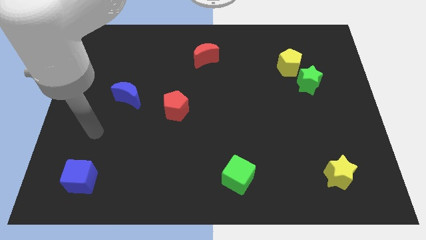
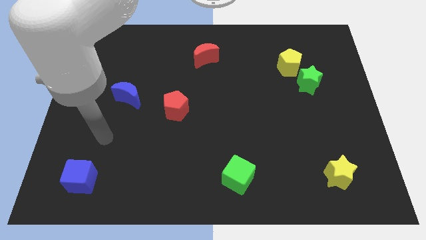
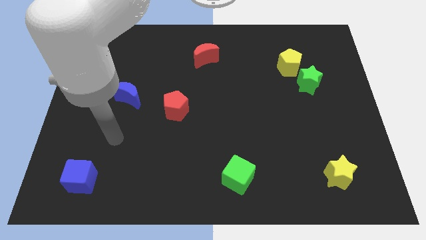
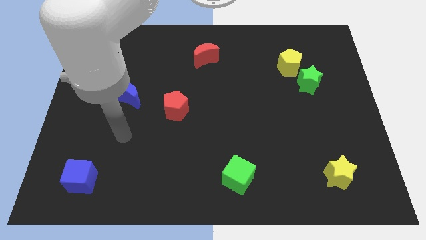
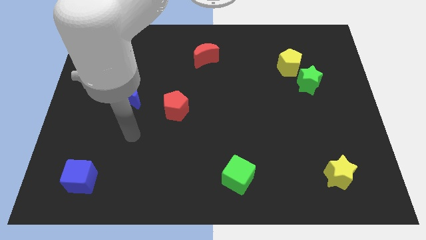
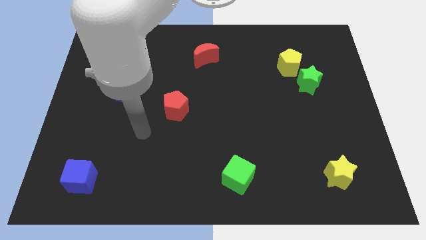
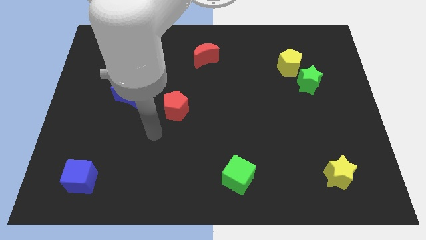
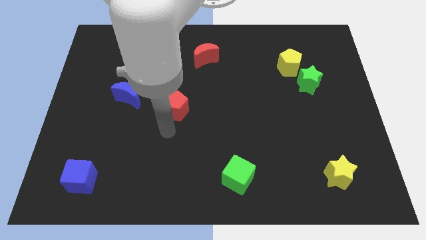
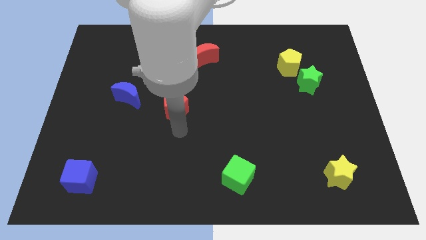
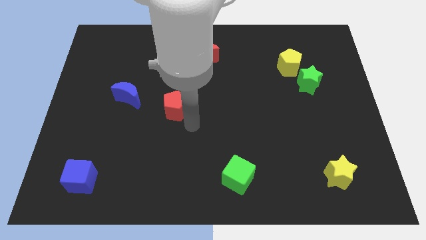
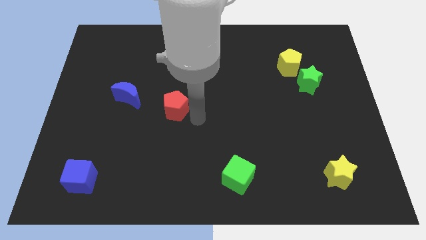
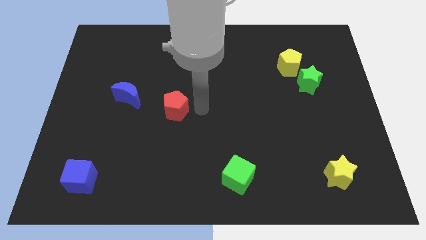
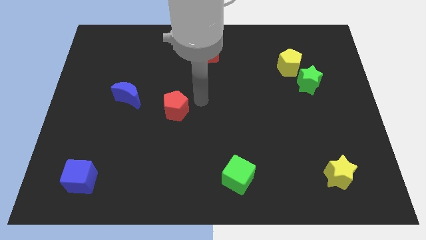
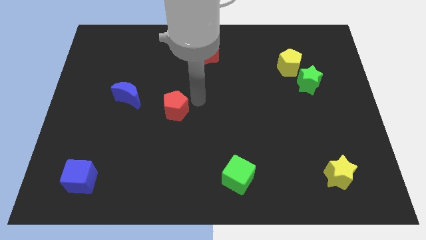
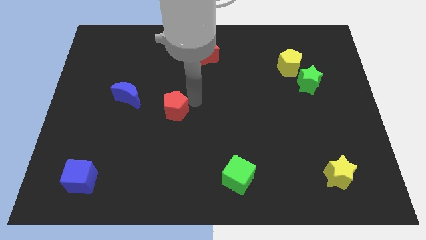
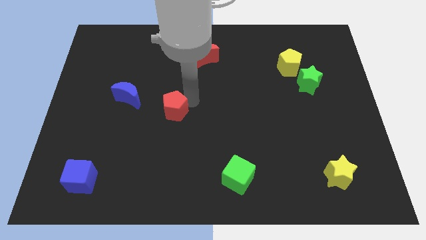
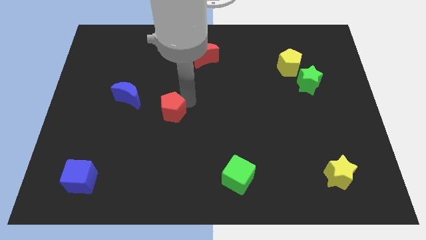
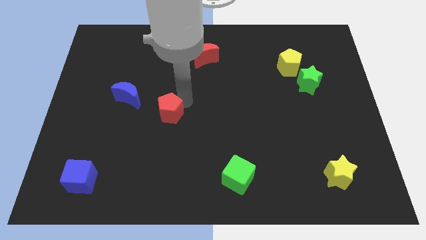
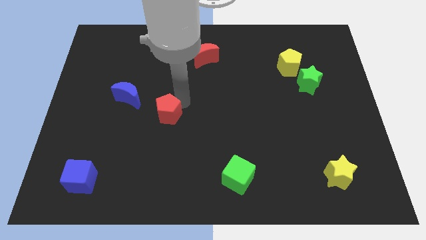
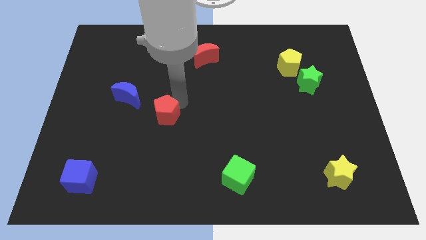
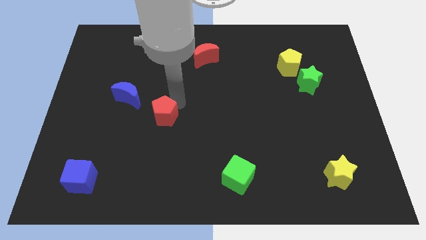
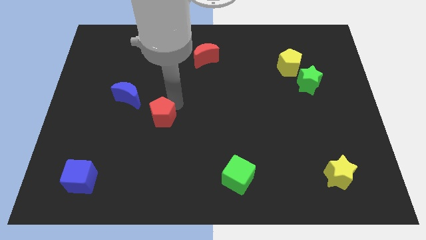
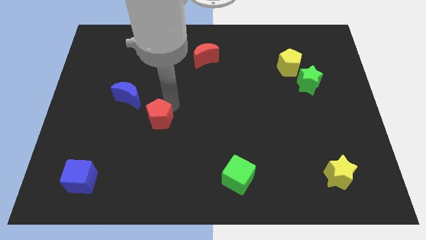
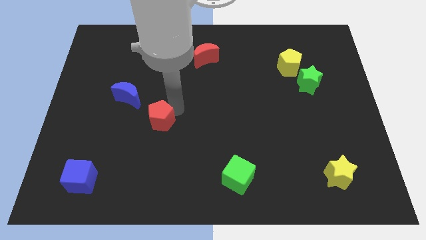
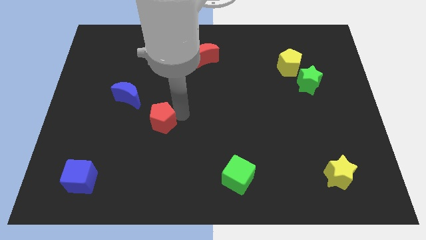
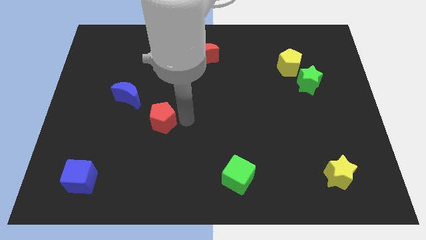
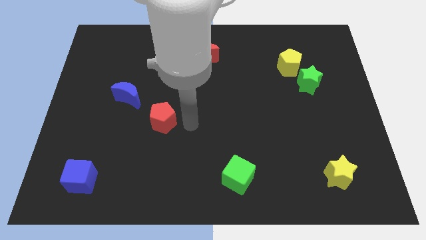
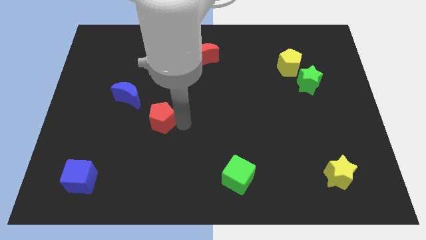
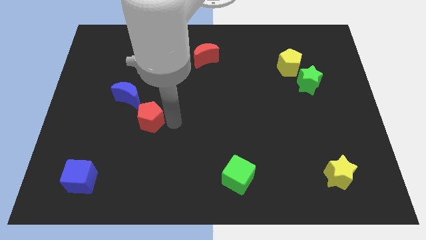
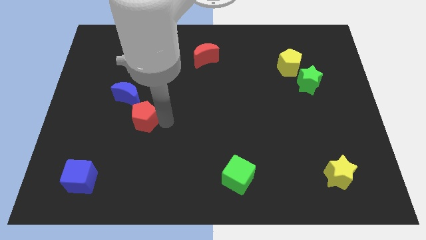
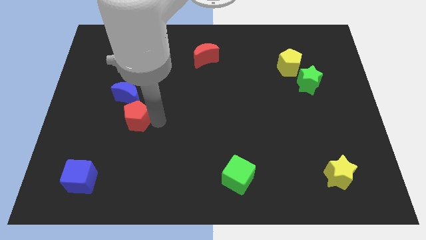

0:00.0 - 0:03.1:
push the red pentagon a little bit left

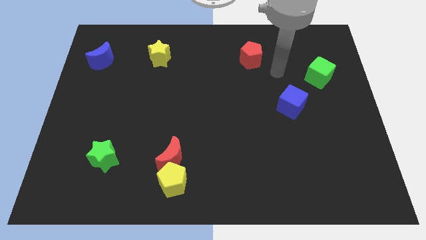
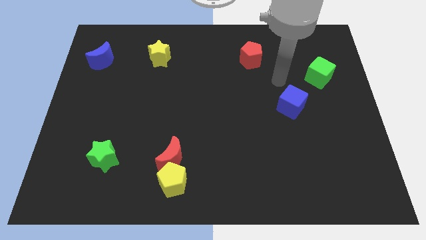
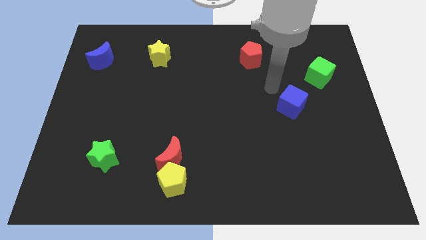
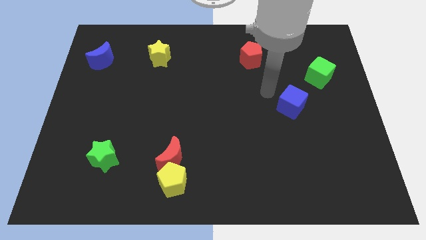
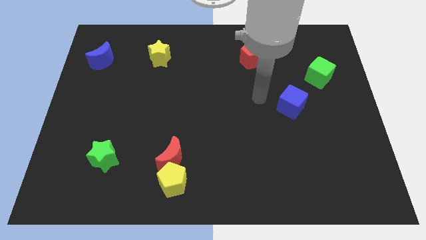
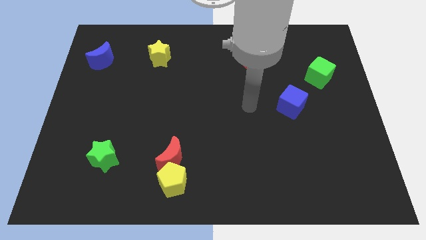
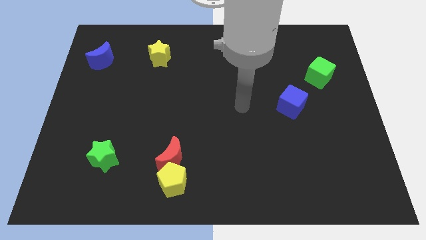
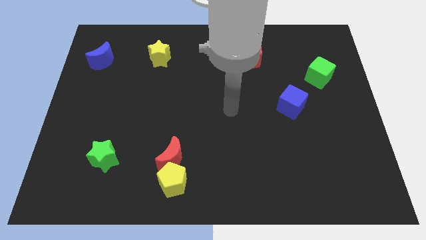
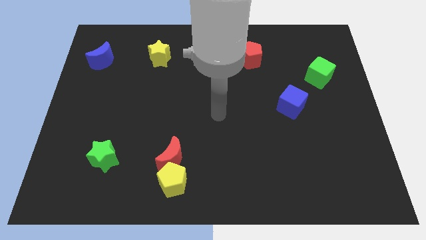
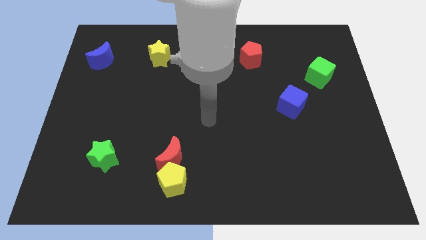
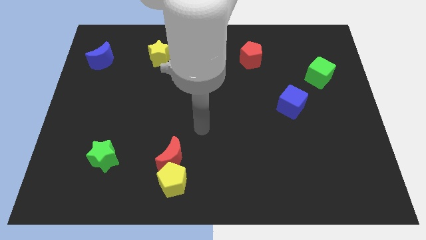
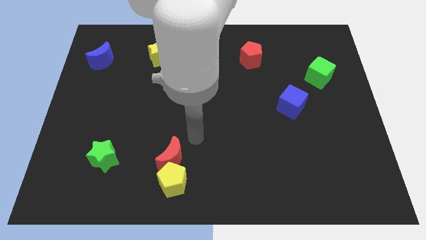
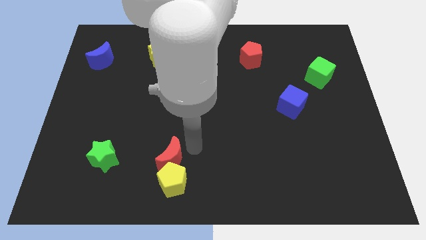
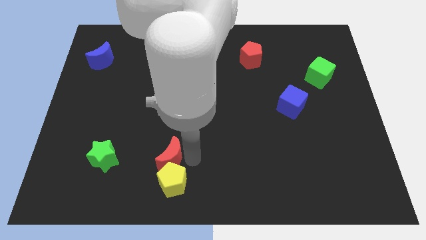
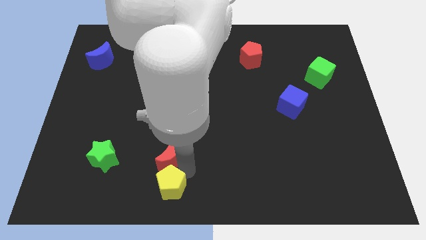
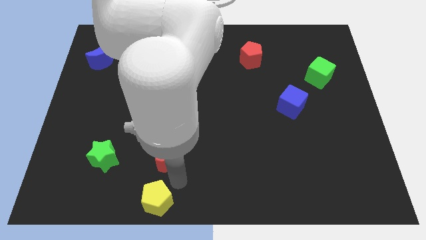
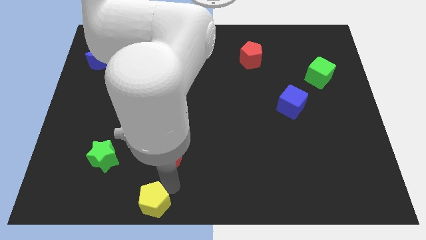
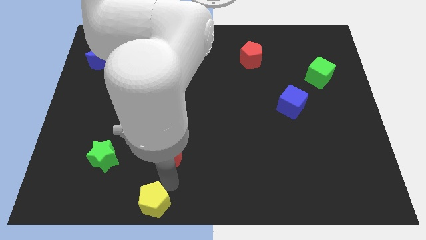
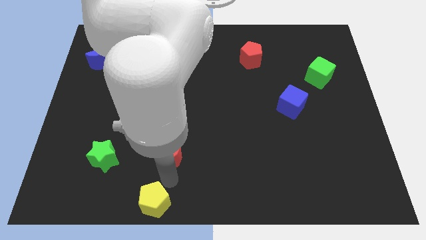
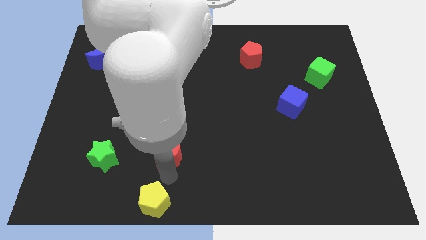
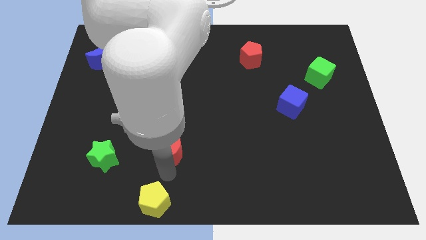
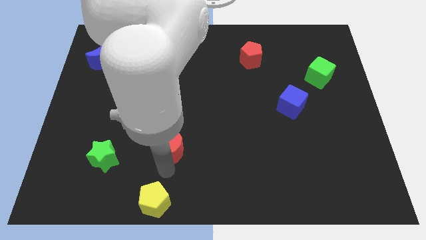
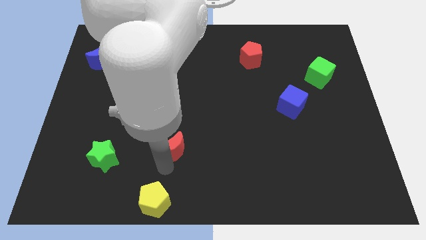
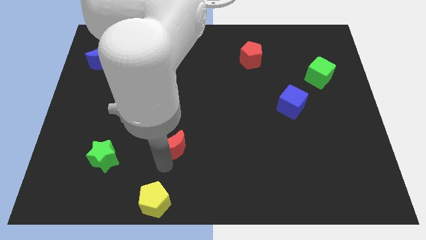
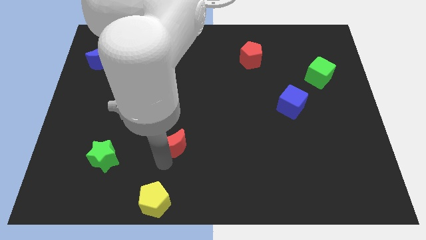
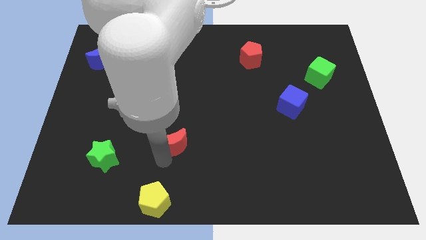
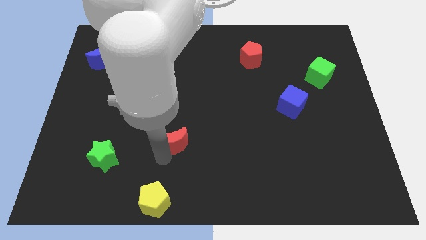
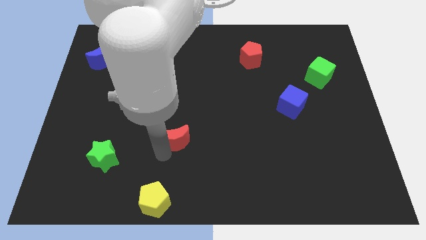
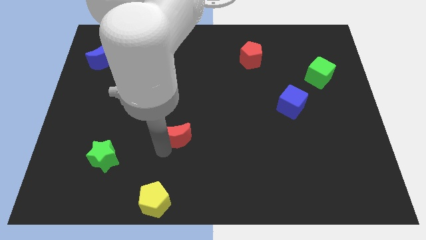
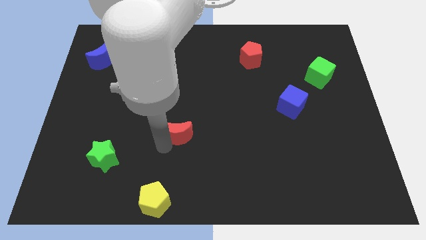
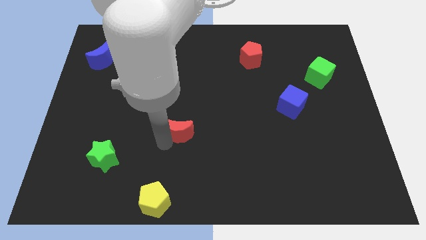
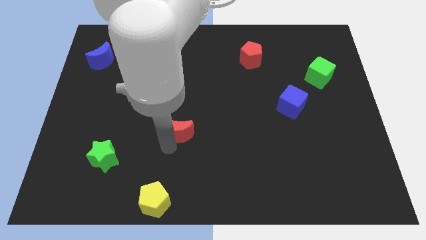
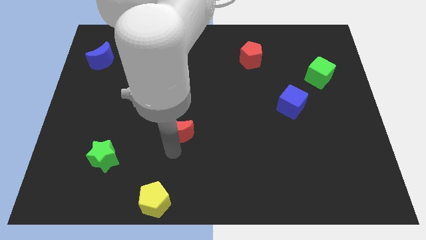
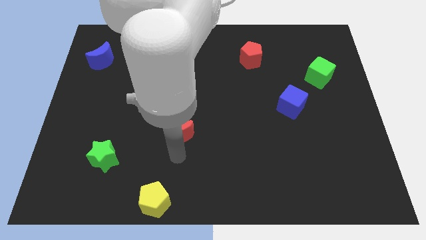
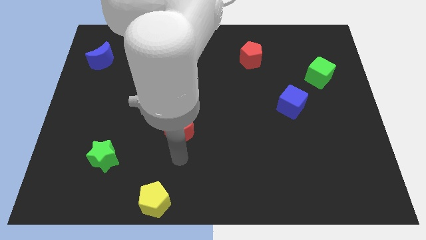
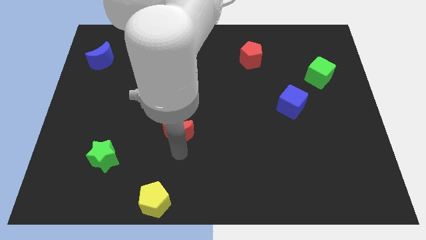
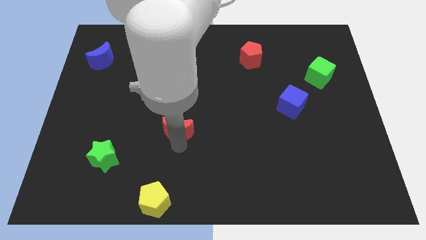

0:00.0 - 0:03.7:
slightly push the red moon up

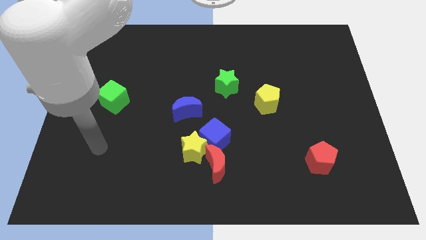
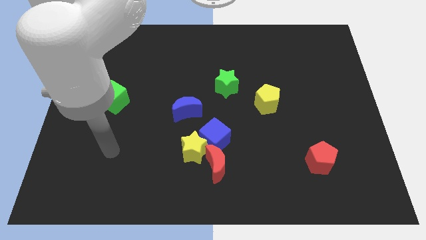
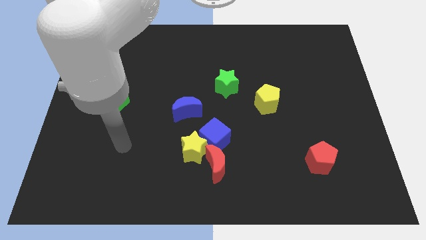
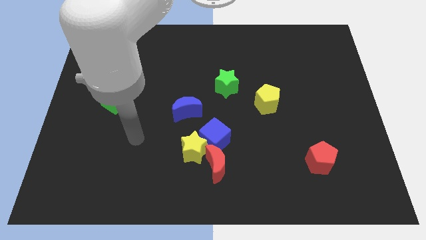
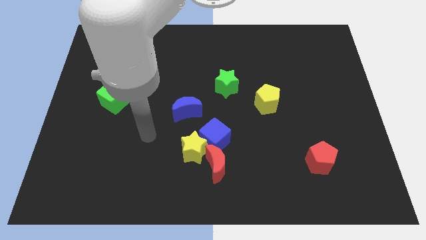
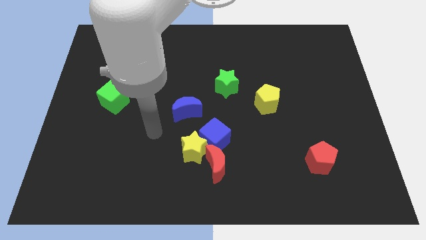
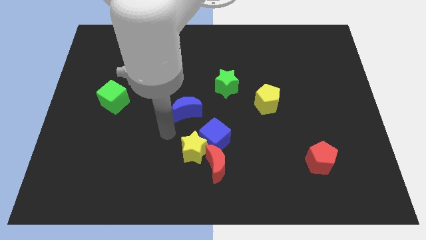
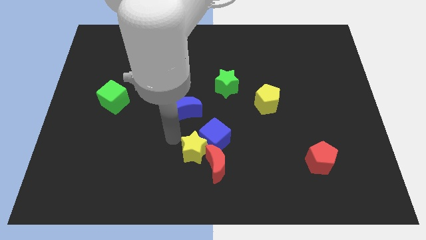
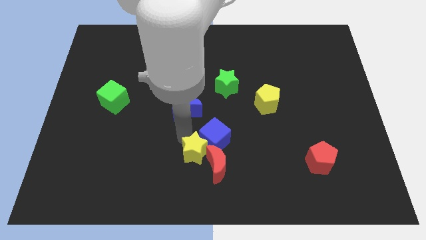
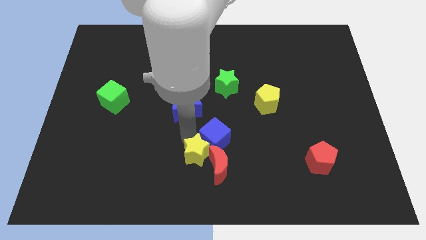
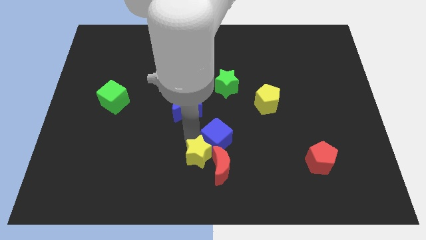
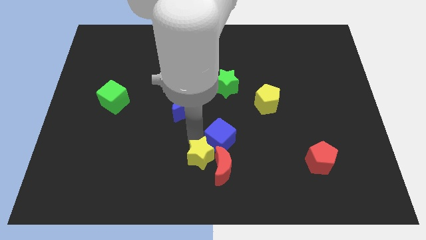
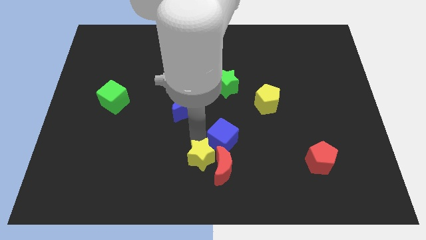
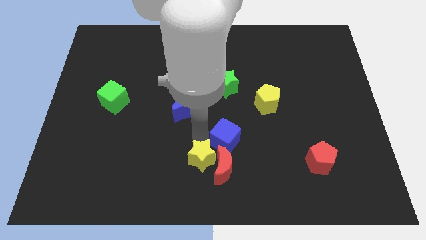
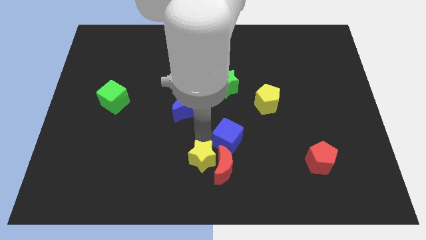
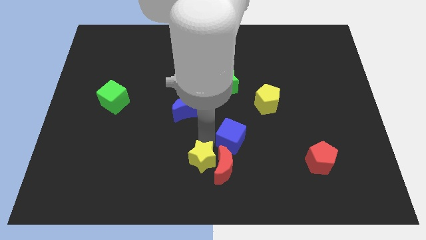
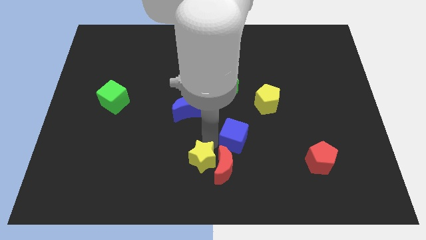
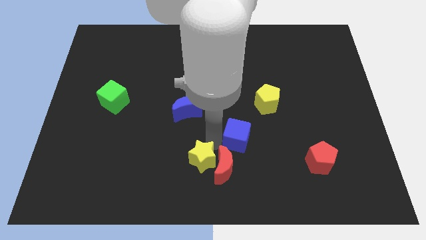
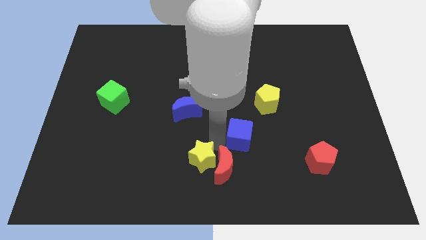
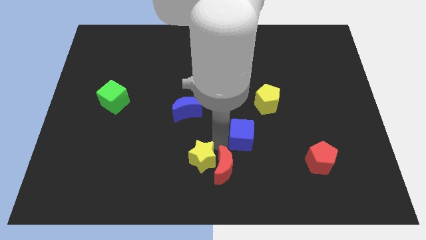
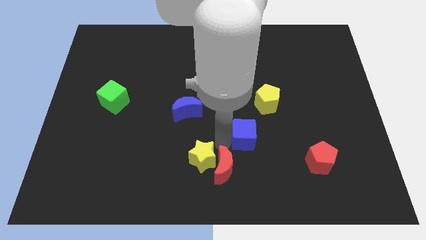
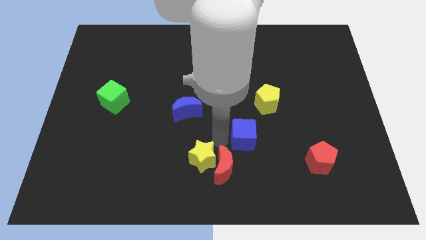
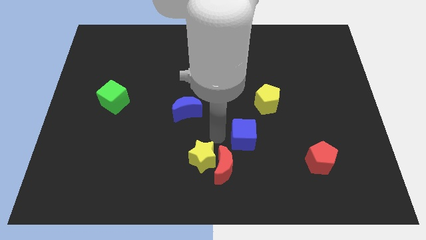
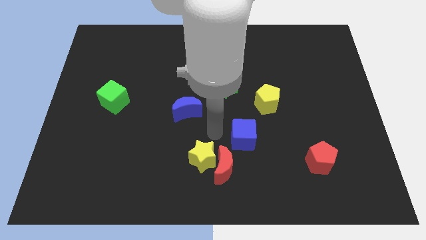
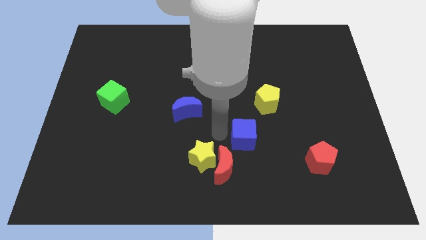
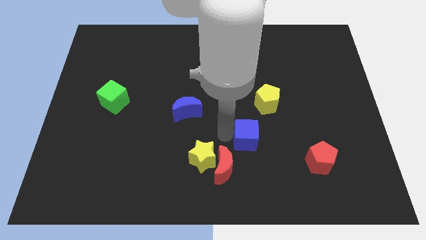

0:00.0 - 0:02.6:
slightly push the blue cube to the right
